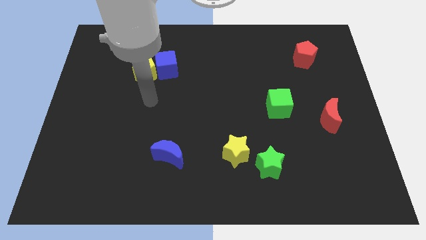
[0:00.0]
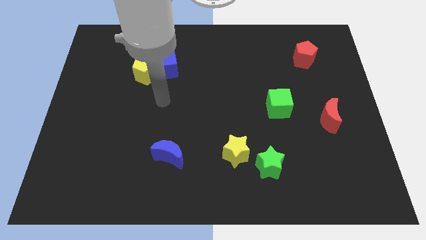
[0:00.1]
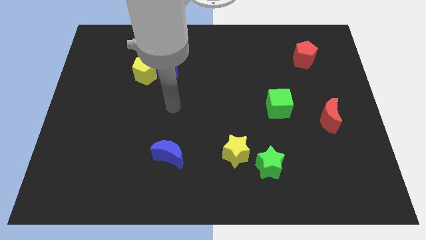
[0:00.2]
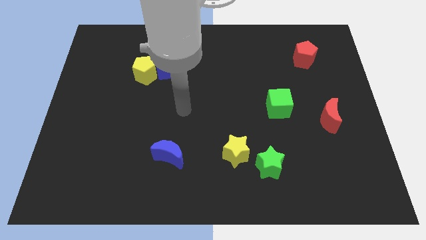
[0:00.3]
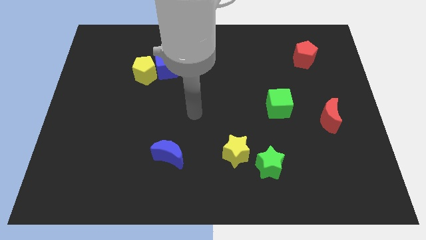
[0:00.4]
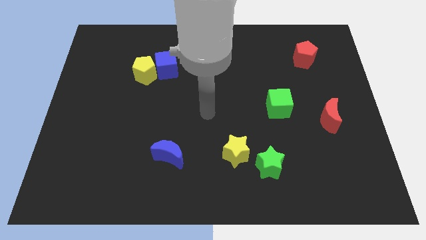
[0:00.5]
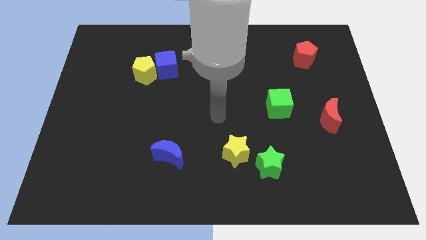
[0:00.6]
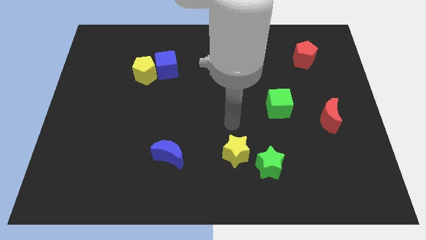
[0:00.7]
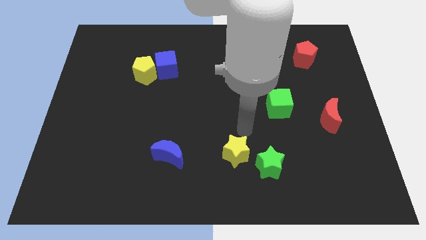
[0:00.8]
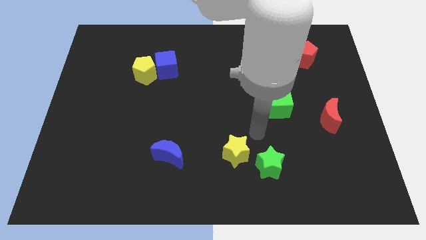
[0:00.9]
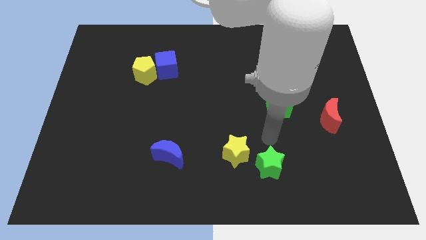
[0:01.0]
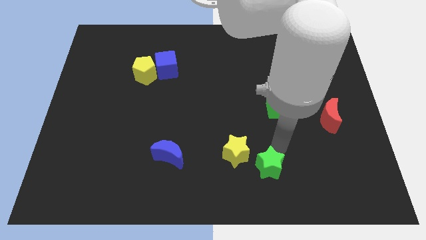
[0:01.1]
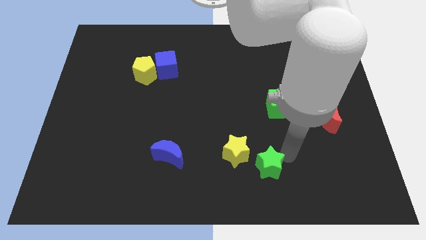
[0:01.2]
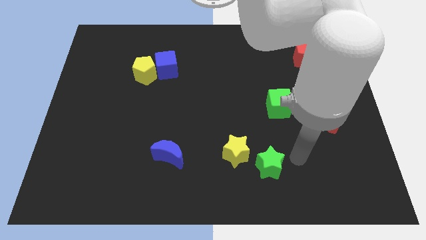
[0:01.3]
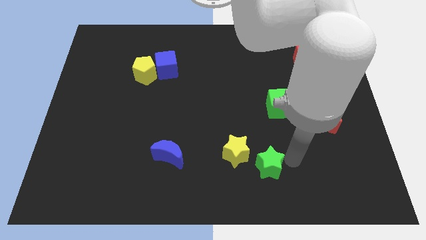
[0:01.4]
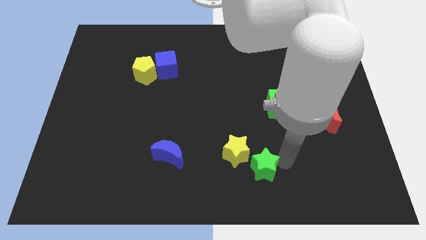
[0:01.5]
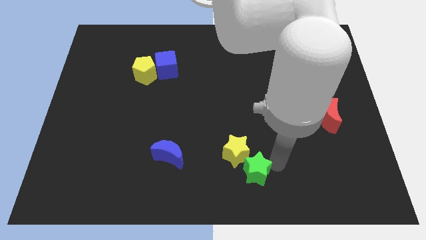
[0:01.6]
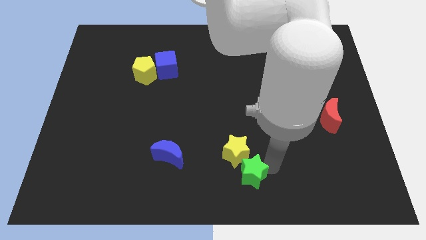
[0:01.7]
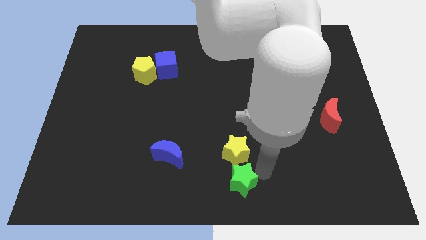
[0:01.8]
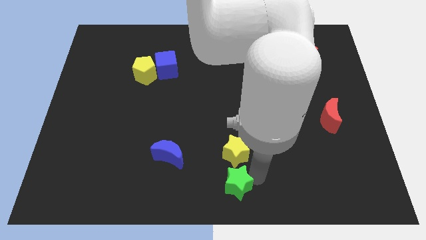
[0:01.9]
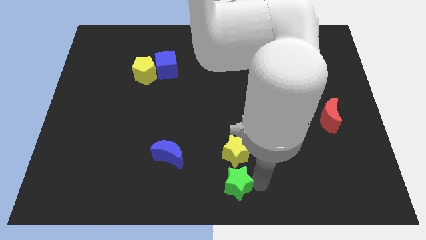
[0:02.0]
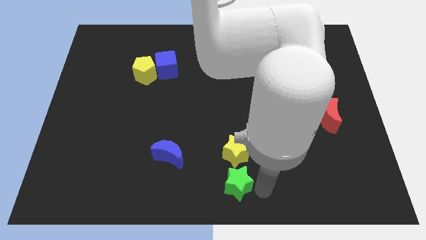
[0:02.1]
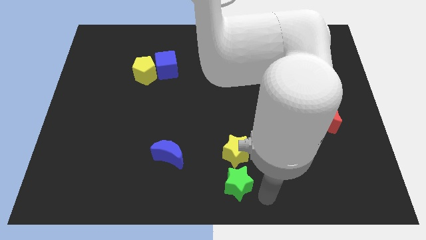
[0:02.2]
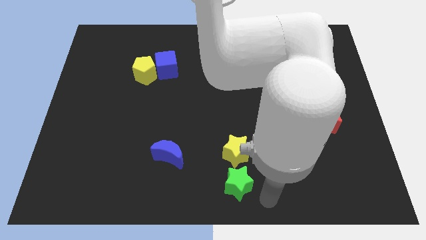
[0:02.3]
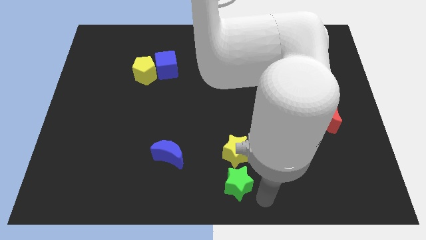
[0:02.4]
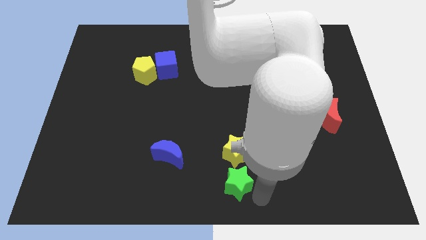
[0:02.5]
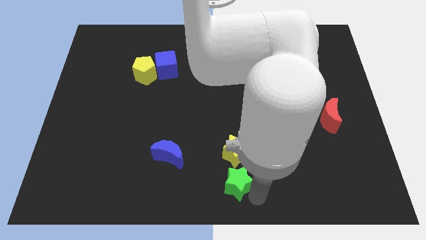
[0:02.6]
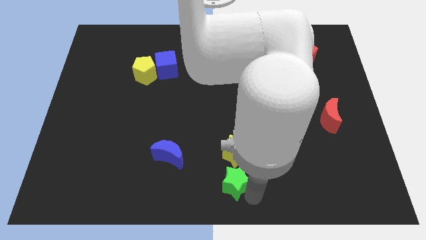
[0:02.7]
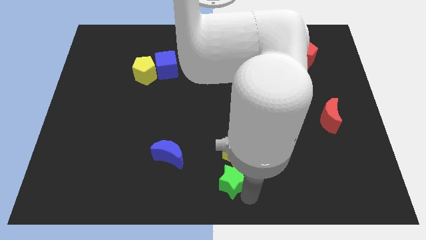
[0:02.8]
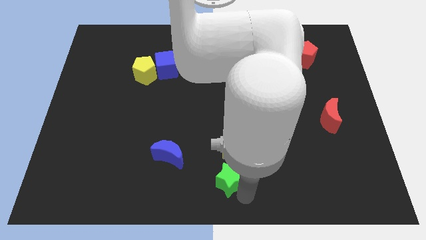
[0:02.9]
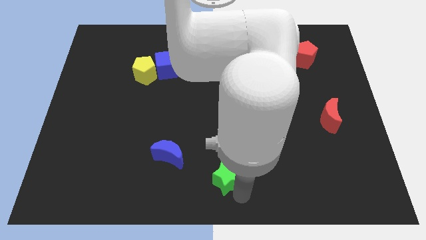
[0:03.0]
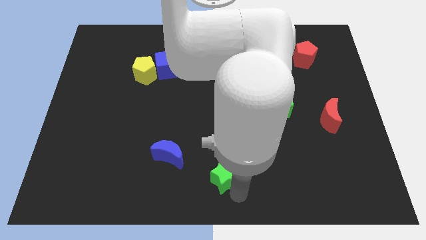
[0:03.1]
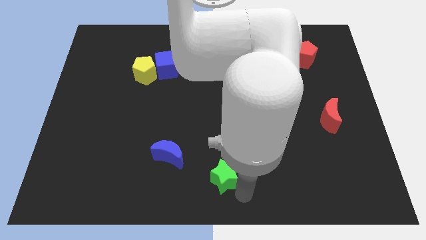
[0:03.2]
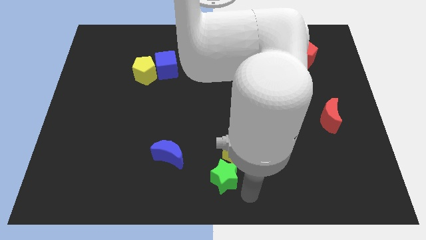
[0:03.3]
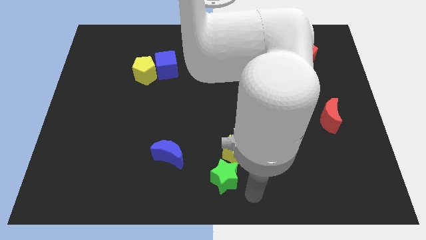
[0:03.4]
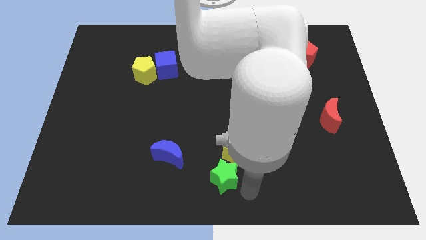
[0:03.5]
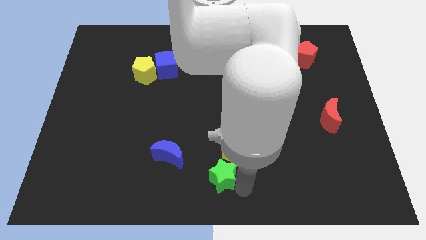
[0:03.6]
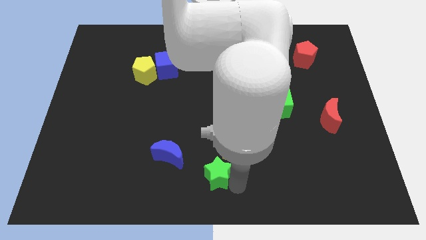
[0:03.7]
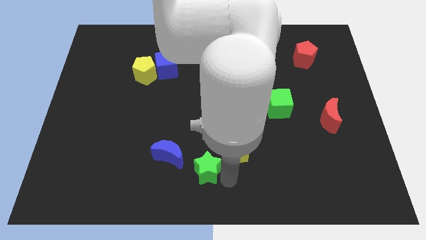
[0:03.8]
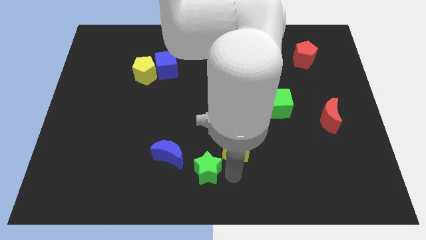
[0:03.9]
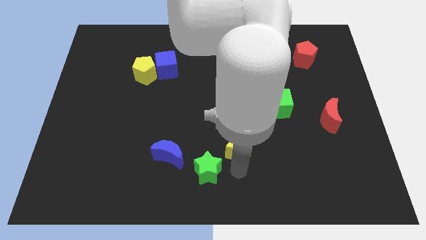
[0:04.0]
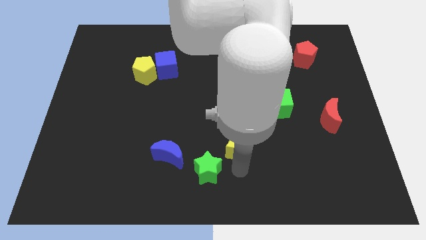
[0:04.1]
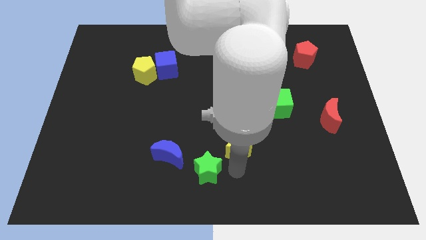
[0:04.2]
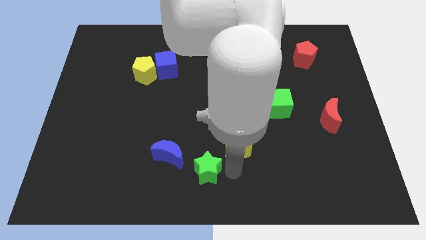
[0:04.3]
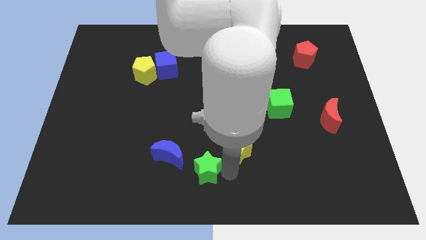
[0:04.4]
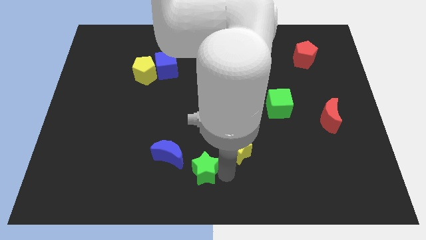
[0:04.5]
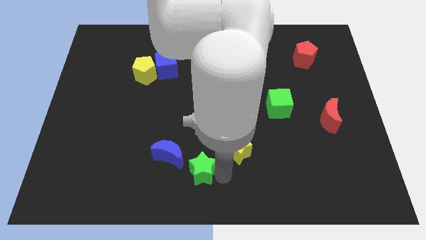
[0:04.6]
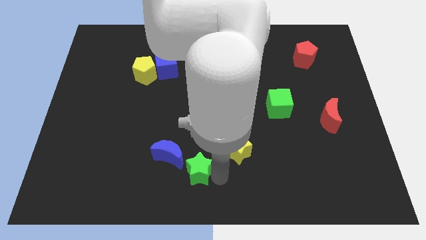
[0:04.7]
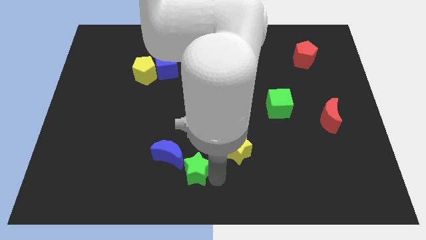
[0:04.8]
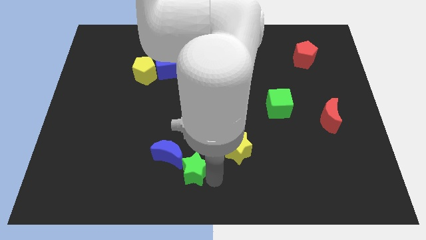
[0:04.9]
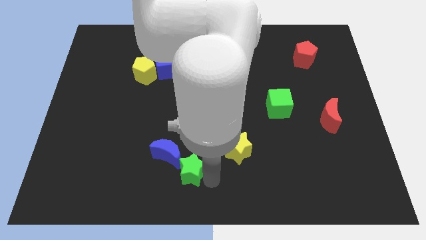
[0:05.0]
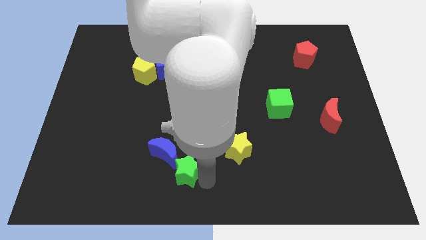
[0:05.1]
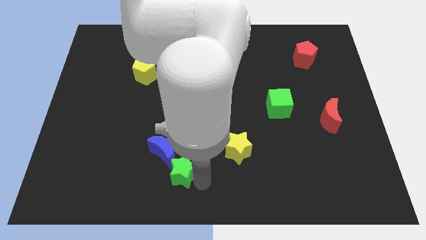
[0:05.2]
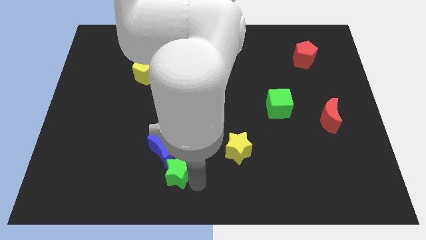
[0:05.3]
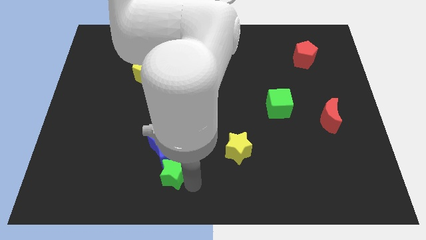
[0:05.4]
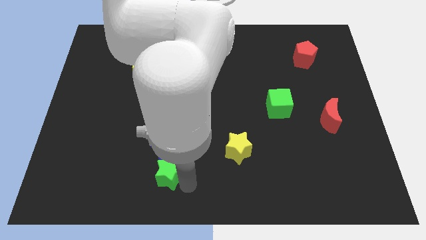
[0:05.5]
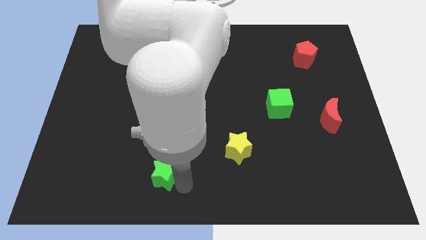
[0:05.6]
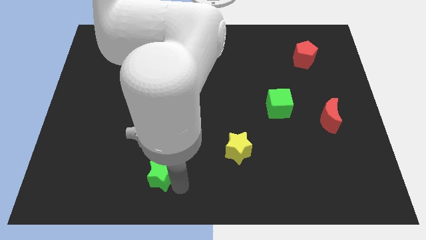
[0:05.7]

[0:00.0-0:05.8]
put the green star diagonally down and to the left of the blue moon
